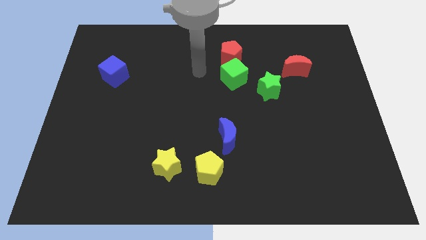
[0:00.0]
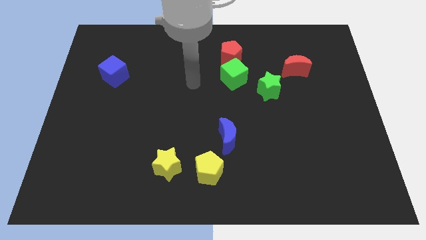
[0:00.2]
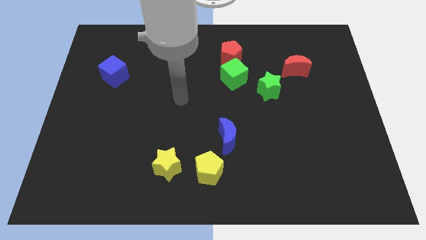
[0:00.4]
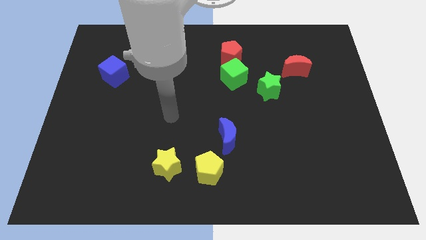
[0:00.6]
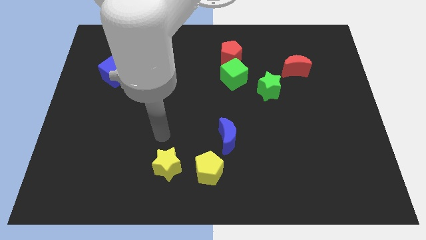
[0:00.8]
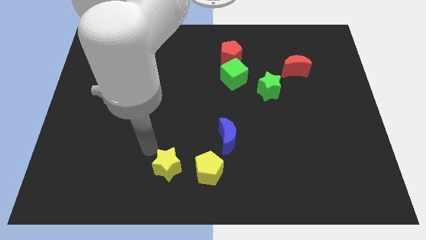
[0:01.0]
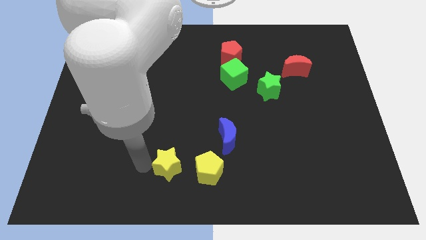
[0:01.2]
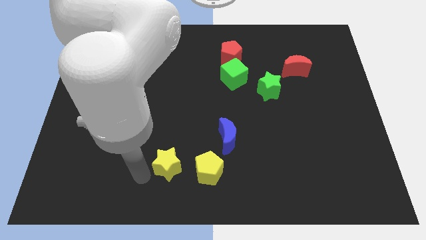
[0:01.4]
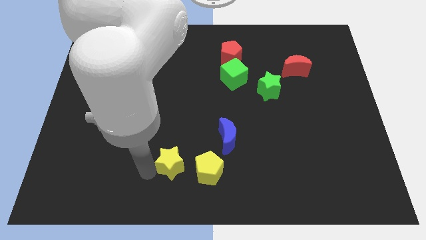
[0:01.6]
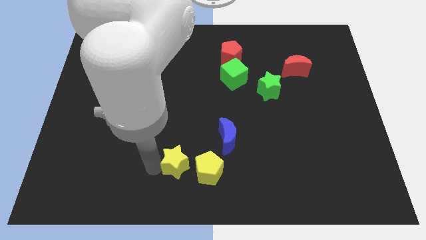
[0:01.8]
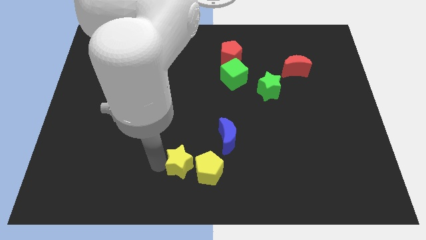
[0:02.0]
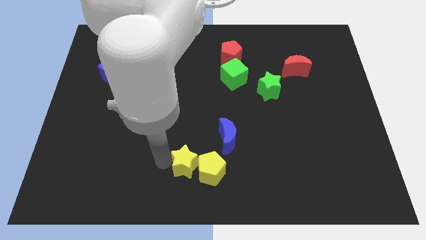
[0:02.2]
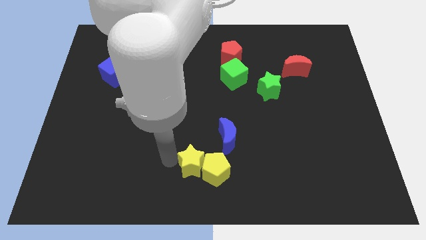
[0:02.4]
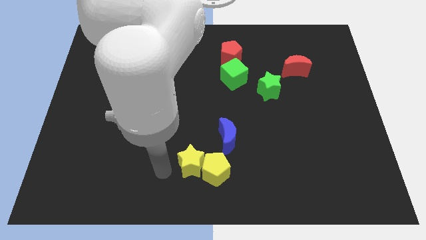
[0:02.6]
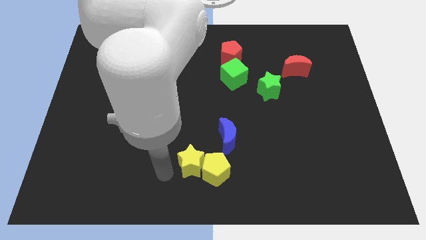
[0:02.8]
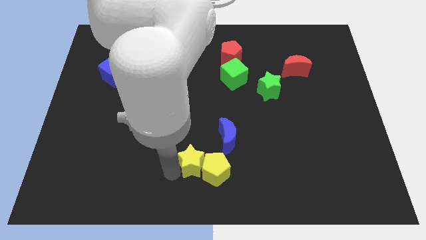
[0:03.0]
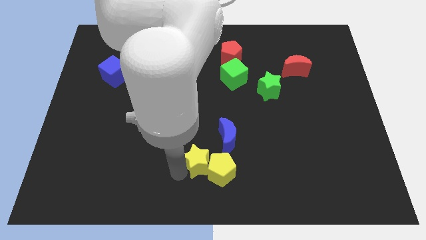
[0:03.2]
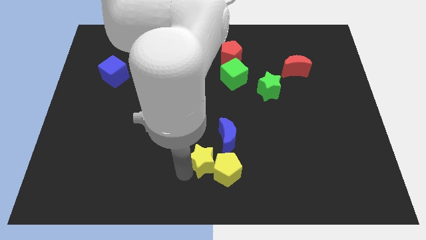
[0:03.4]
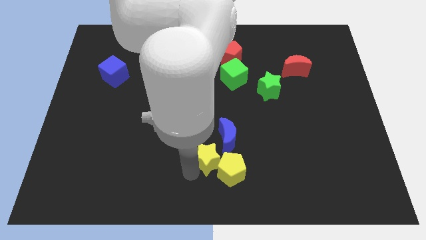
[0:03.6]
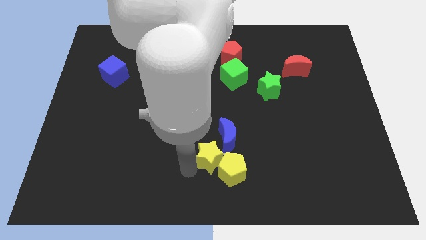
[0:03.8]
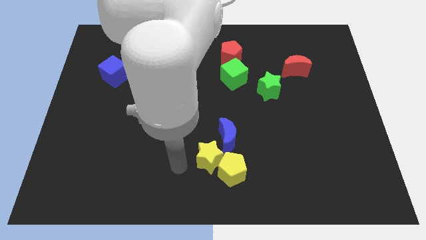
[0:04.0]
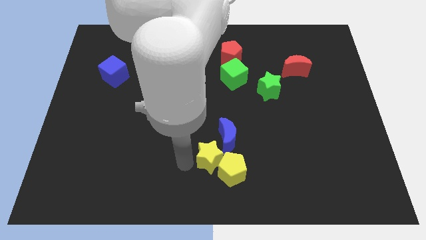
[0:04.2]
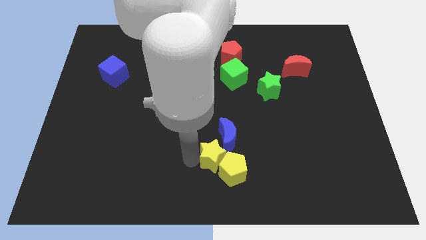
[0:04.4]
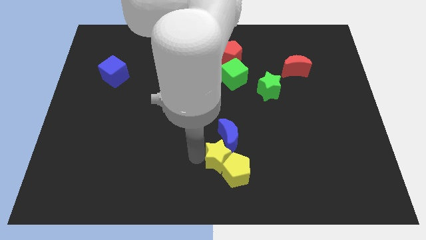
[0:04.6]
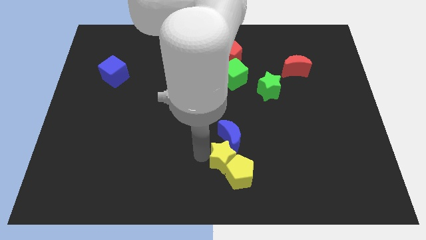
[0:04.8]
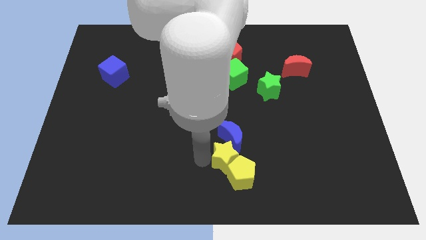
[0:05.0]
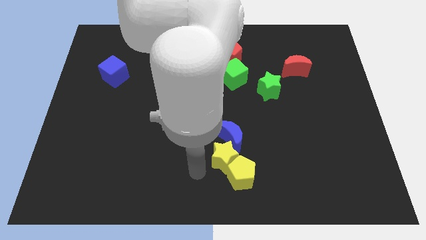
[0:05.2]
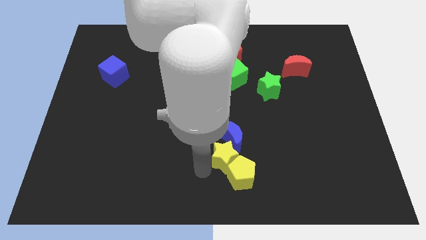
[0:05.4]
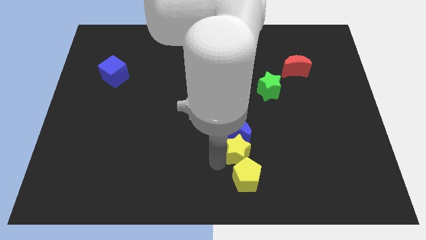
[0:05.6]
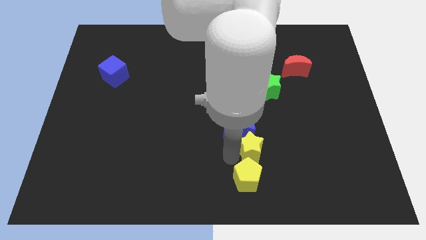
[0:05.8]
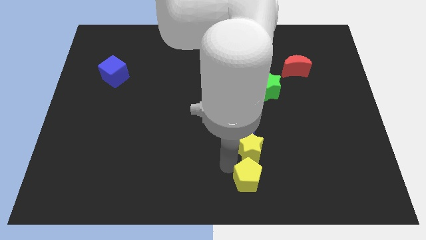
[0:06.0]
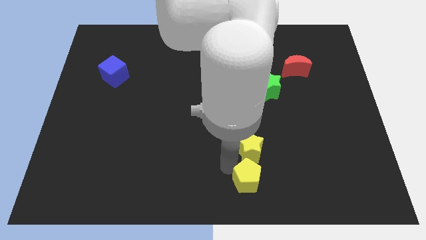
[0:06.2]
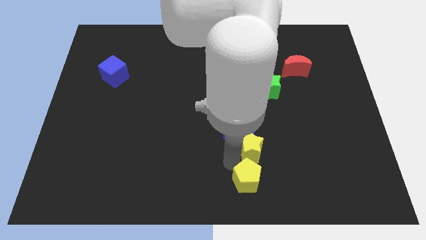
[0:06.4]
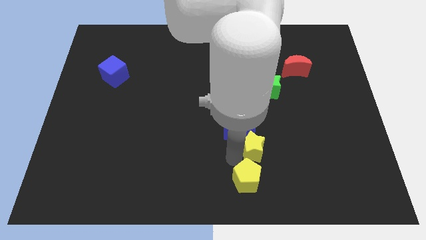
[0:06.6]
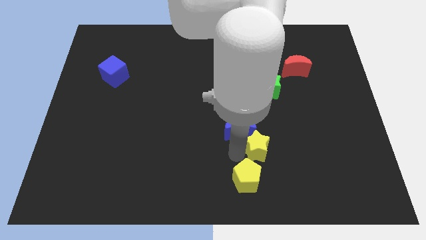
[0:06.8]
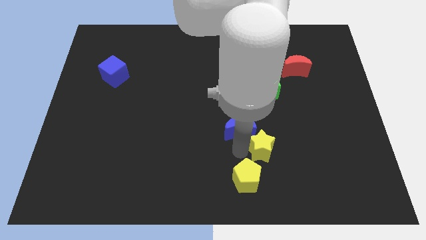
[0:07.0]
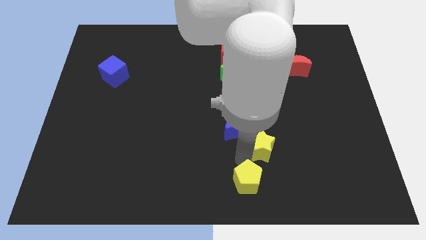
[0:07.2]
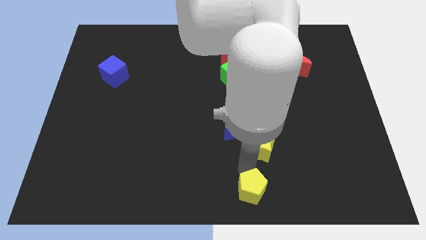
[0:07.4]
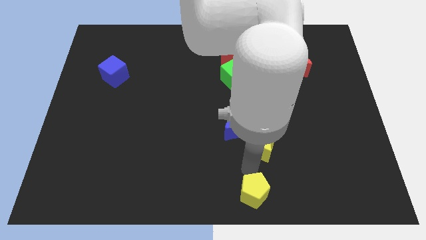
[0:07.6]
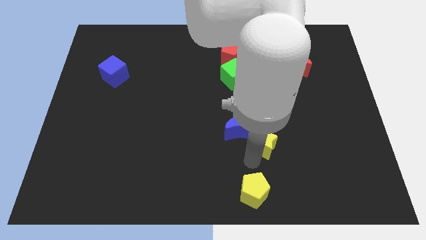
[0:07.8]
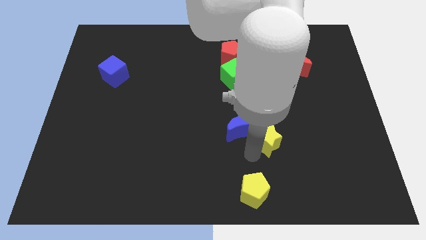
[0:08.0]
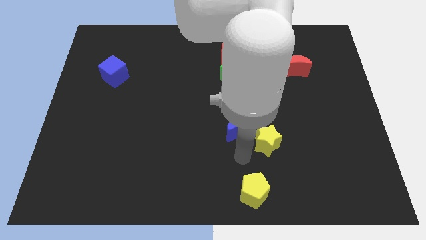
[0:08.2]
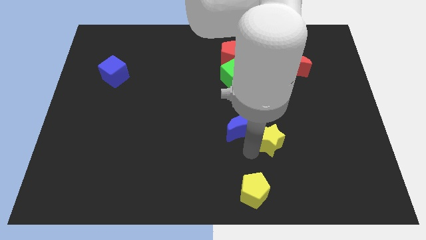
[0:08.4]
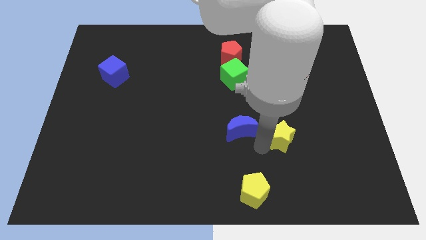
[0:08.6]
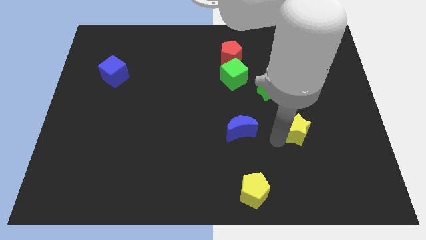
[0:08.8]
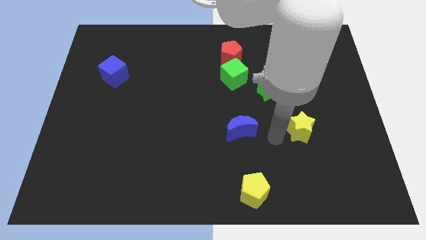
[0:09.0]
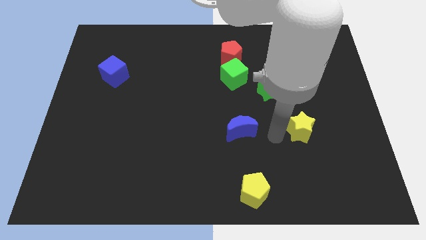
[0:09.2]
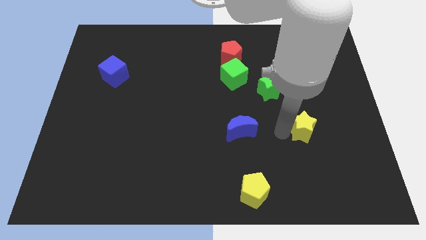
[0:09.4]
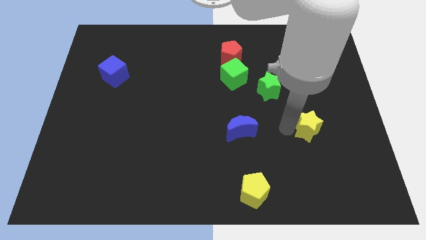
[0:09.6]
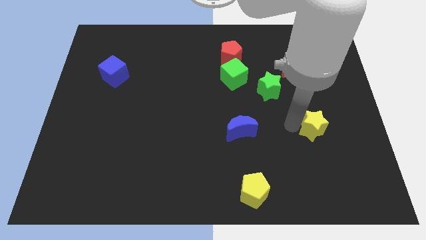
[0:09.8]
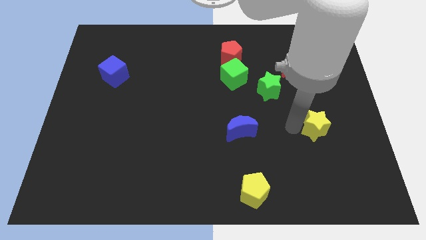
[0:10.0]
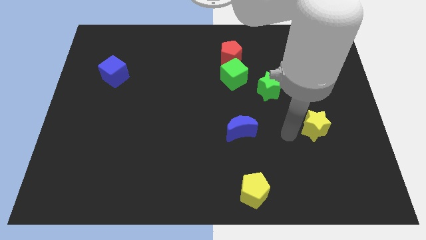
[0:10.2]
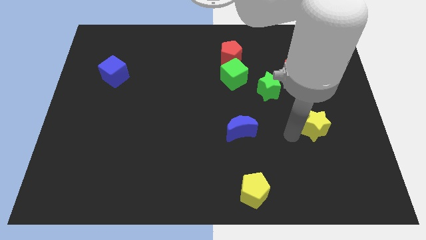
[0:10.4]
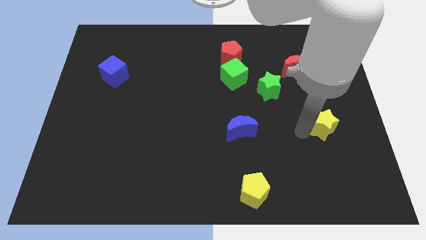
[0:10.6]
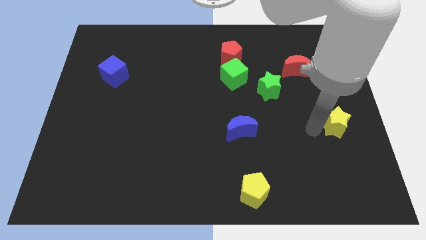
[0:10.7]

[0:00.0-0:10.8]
put the yellow star to the center right
